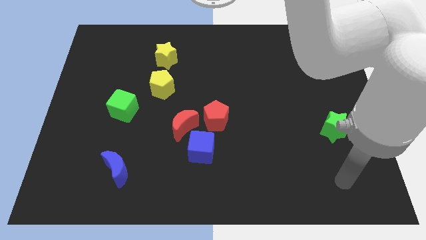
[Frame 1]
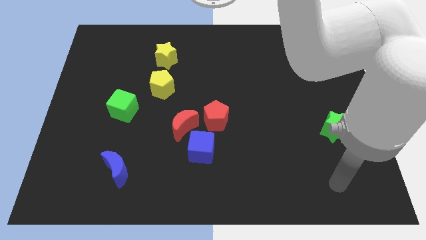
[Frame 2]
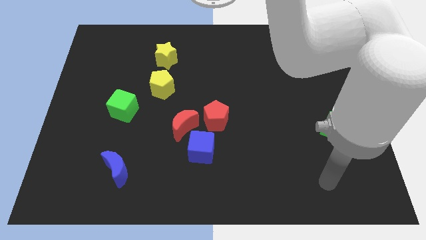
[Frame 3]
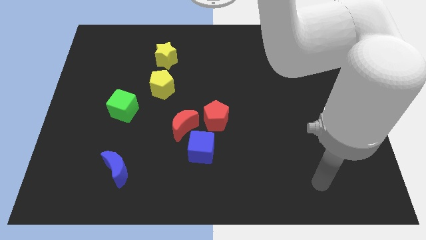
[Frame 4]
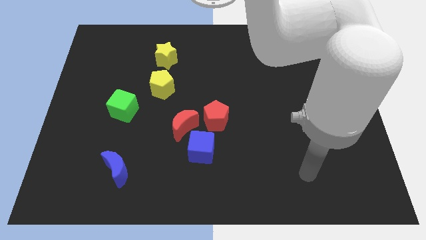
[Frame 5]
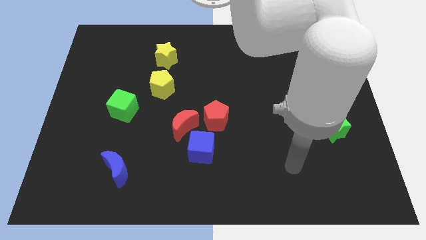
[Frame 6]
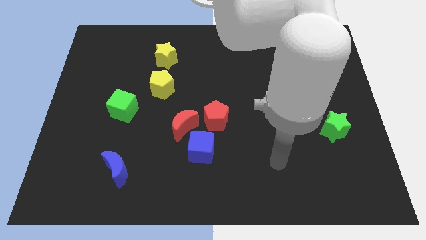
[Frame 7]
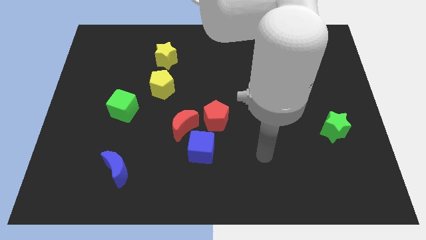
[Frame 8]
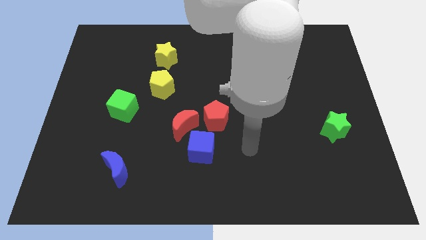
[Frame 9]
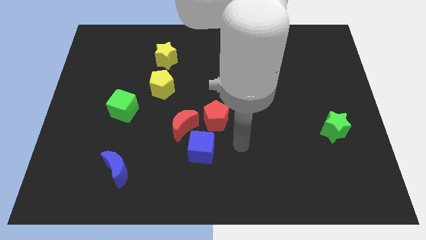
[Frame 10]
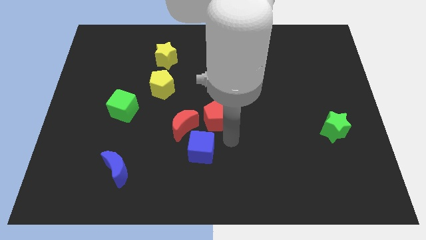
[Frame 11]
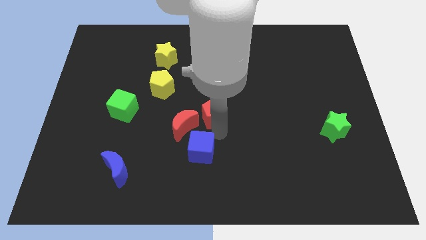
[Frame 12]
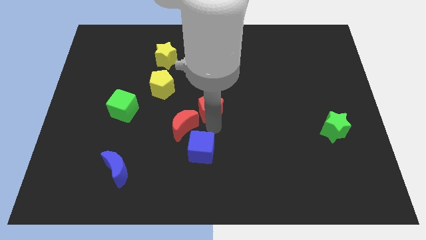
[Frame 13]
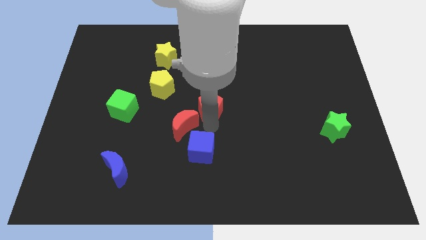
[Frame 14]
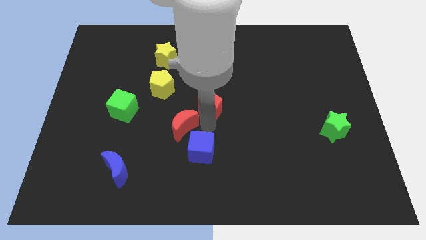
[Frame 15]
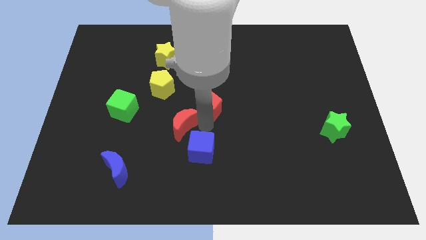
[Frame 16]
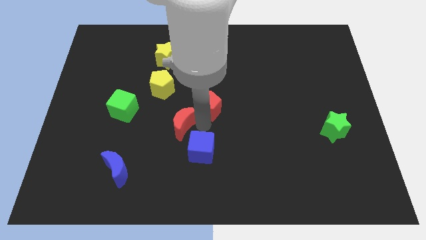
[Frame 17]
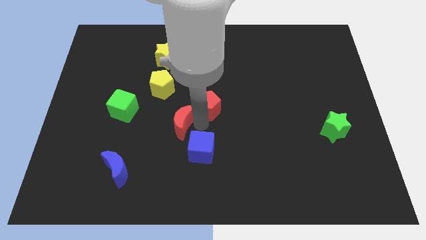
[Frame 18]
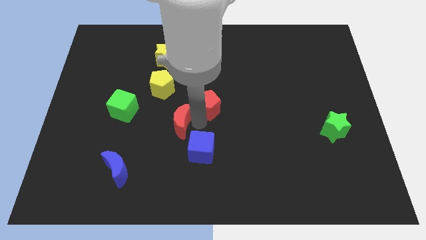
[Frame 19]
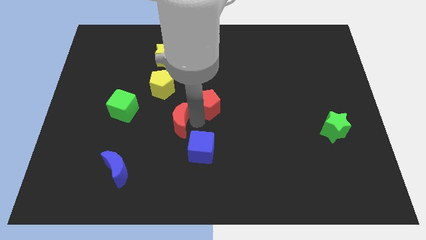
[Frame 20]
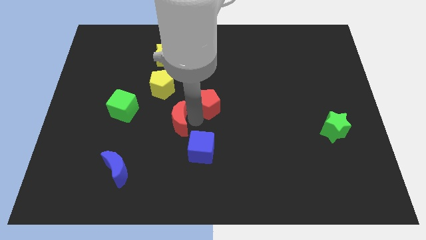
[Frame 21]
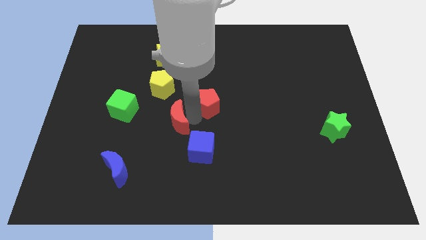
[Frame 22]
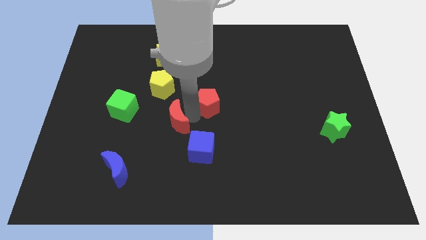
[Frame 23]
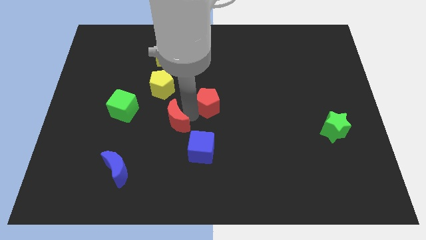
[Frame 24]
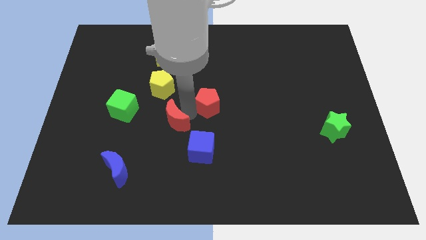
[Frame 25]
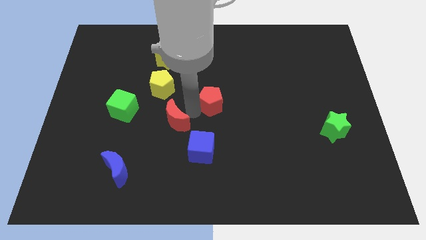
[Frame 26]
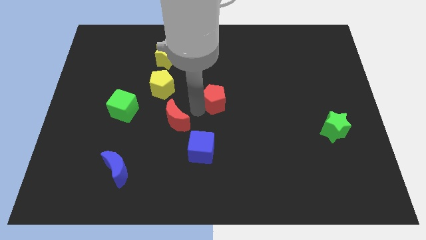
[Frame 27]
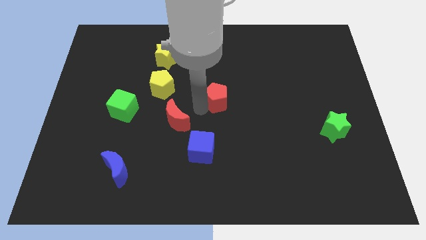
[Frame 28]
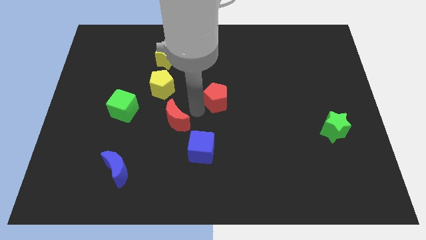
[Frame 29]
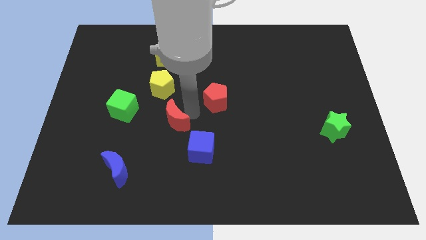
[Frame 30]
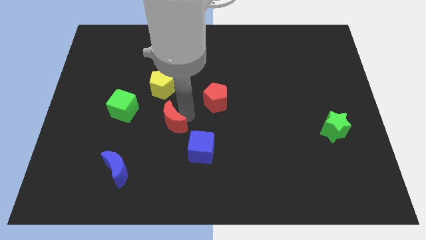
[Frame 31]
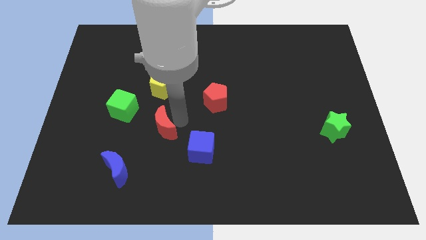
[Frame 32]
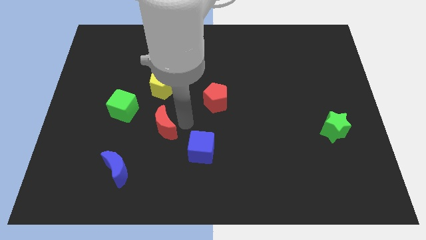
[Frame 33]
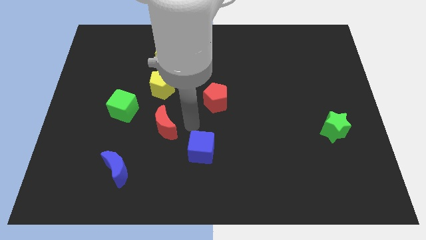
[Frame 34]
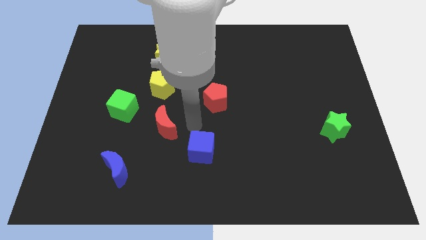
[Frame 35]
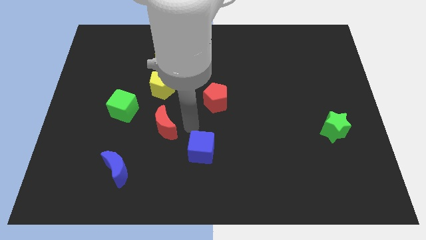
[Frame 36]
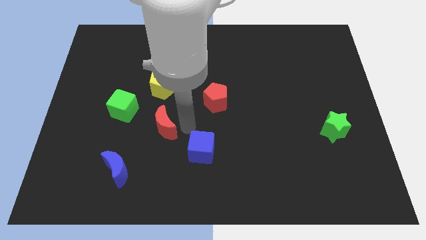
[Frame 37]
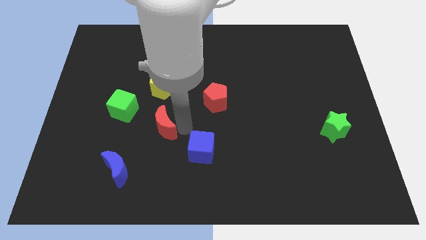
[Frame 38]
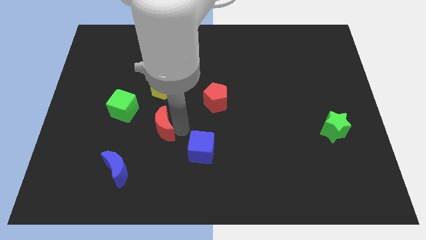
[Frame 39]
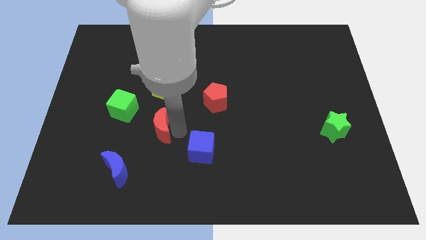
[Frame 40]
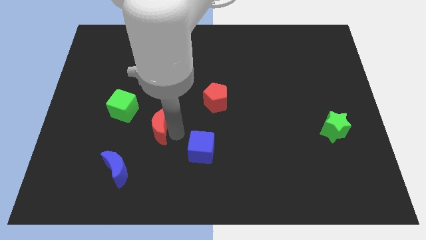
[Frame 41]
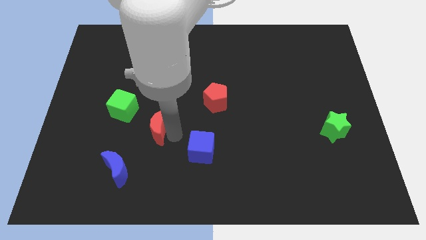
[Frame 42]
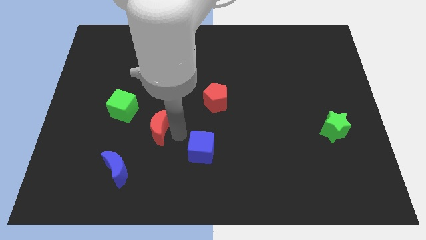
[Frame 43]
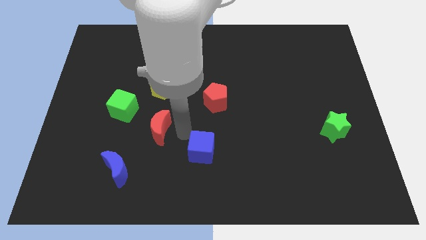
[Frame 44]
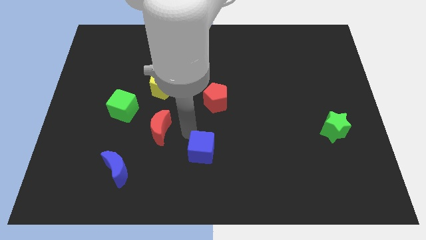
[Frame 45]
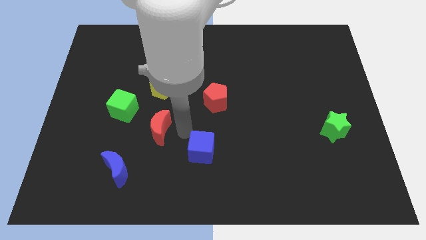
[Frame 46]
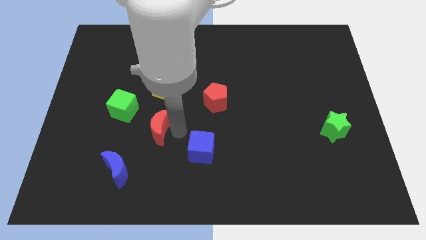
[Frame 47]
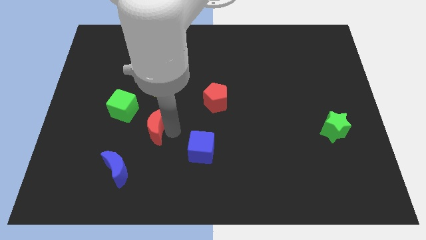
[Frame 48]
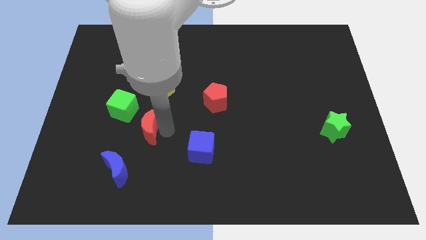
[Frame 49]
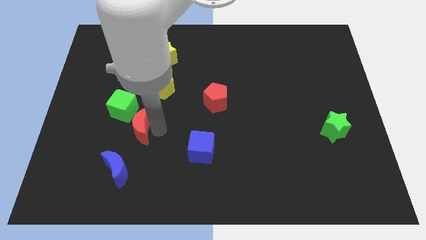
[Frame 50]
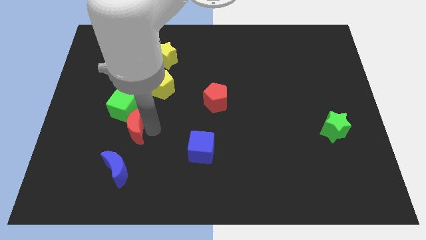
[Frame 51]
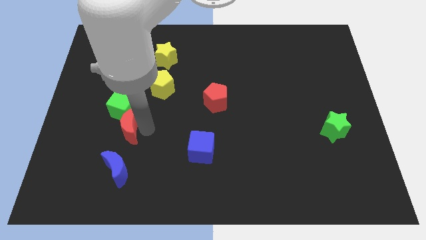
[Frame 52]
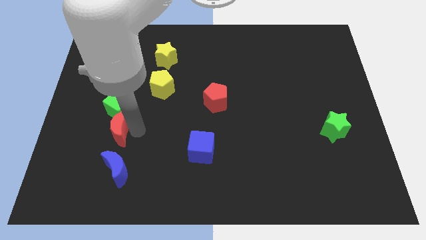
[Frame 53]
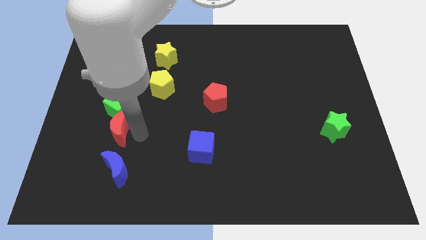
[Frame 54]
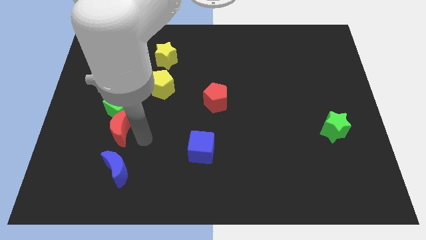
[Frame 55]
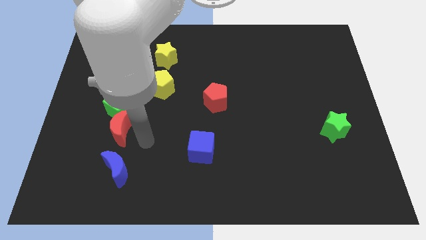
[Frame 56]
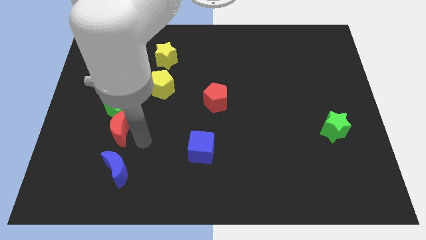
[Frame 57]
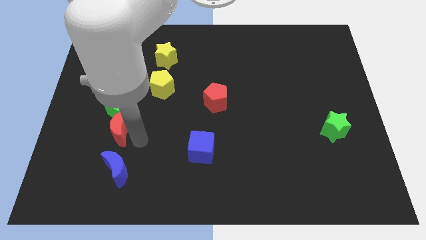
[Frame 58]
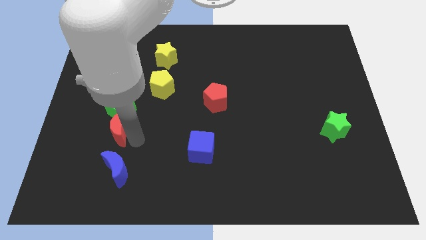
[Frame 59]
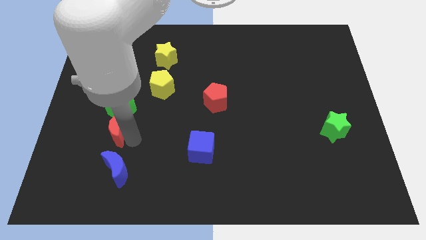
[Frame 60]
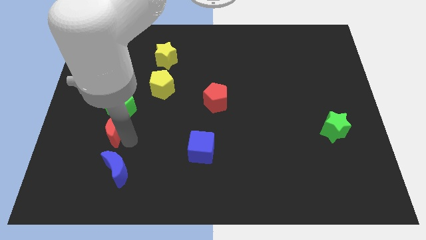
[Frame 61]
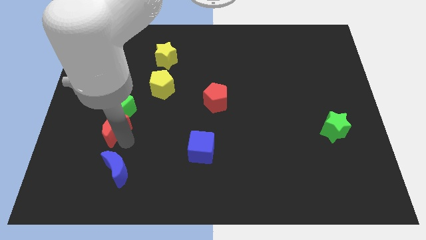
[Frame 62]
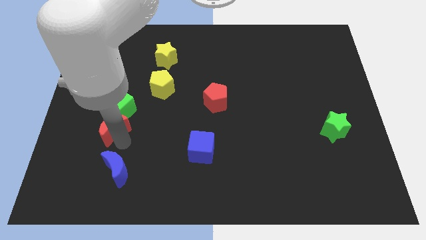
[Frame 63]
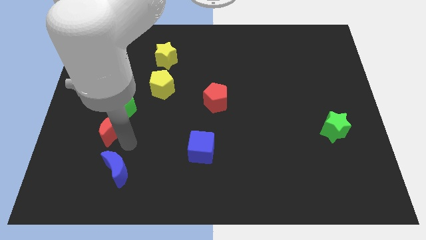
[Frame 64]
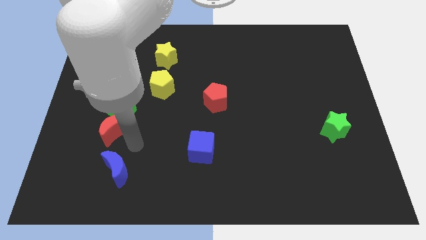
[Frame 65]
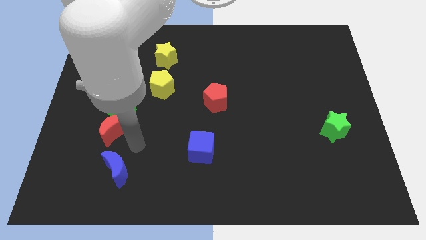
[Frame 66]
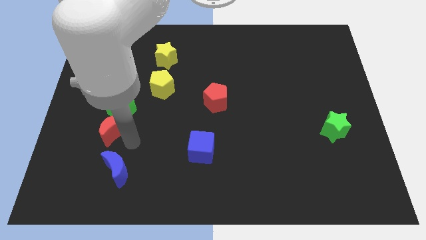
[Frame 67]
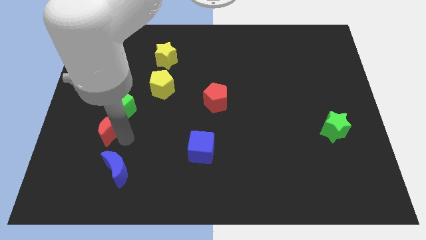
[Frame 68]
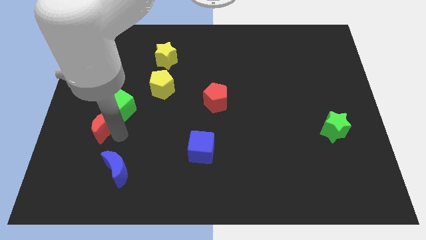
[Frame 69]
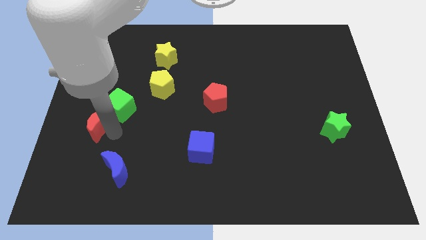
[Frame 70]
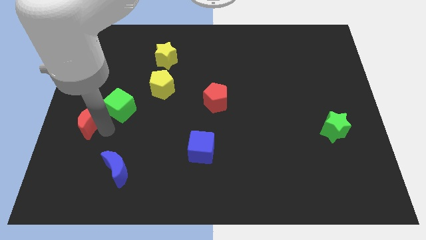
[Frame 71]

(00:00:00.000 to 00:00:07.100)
move the red moon to the left side of the board
